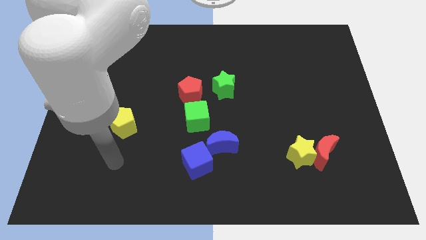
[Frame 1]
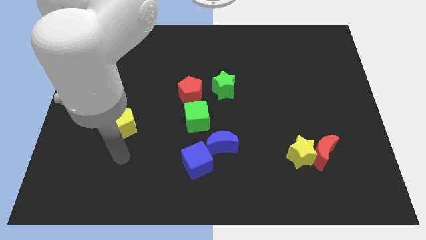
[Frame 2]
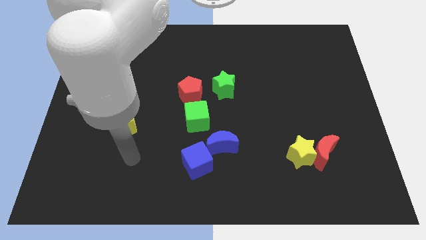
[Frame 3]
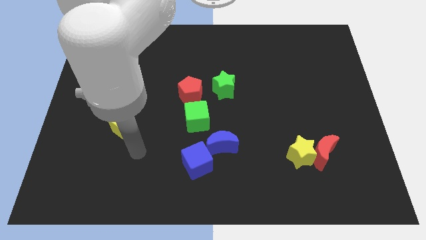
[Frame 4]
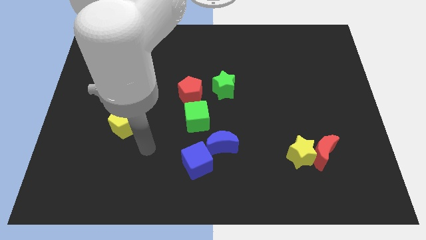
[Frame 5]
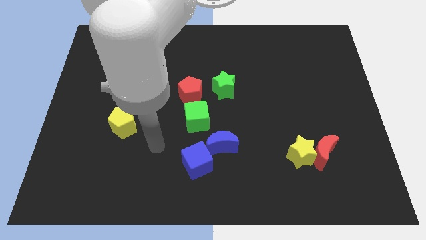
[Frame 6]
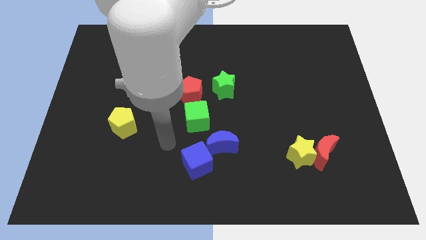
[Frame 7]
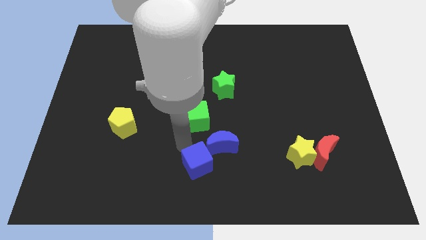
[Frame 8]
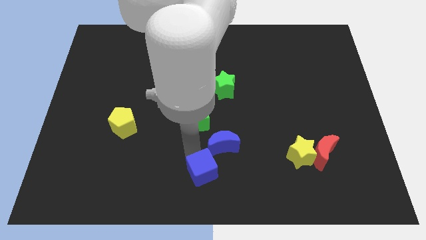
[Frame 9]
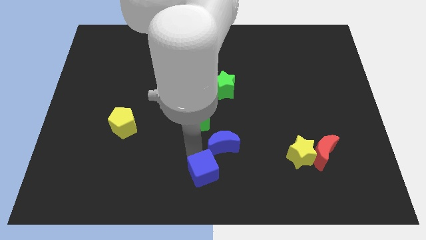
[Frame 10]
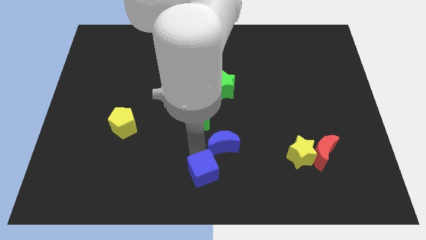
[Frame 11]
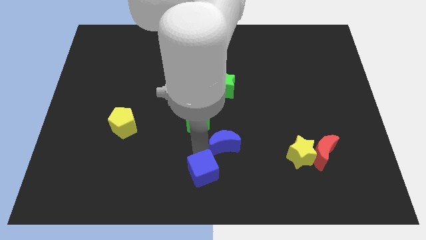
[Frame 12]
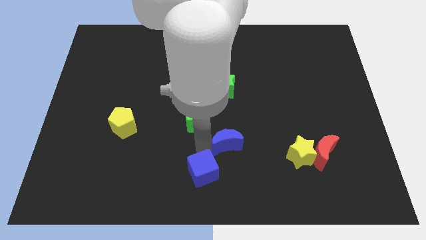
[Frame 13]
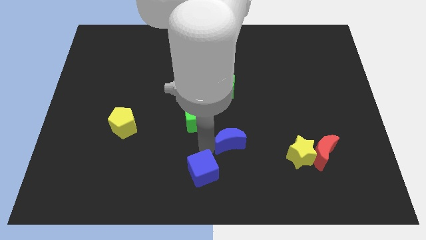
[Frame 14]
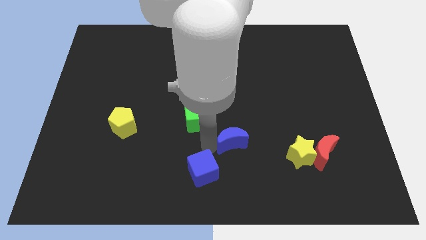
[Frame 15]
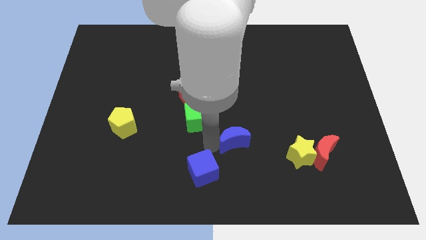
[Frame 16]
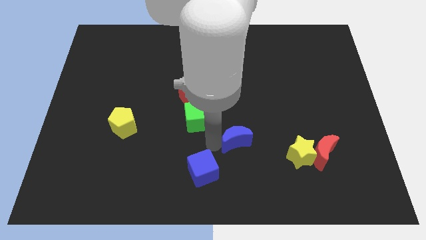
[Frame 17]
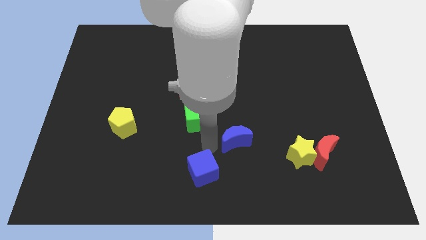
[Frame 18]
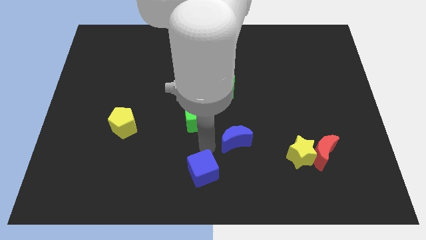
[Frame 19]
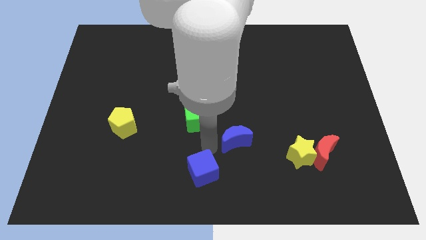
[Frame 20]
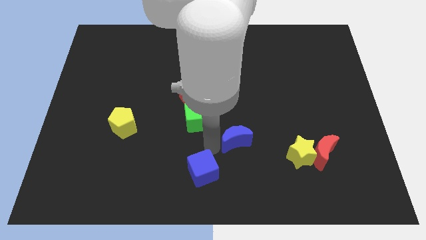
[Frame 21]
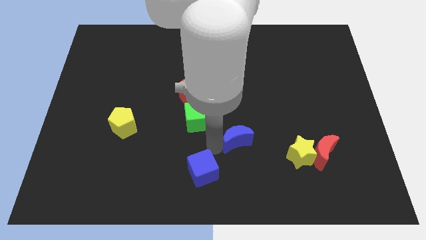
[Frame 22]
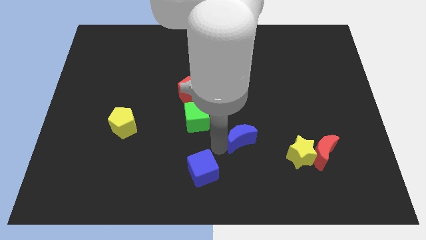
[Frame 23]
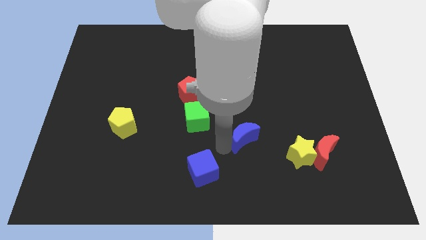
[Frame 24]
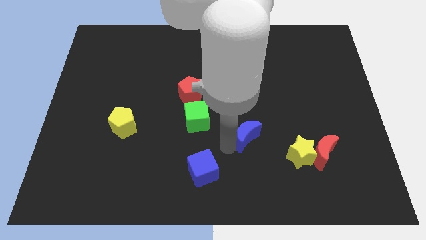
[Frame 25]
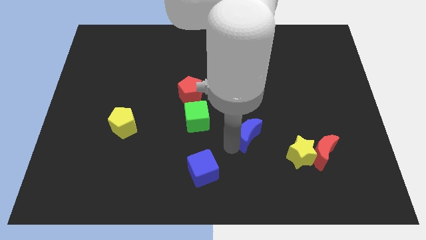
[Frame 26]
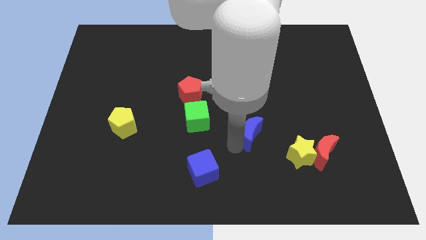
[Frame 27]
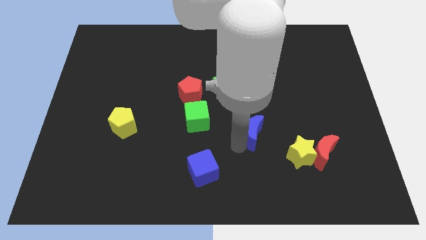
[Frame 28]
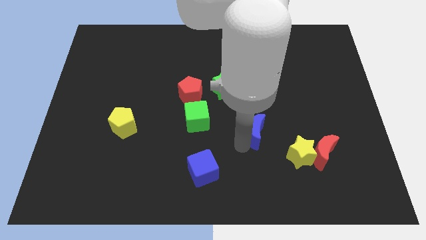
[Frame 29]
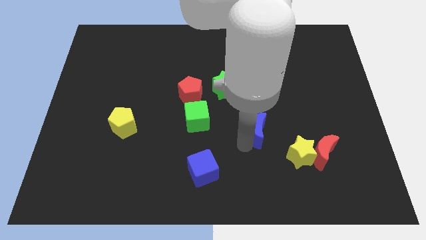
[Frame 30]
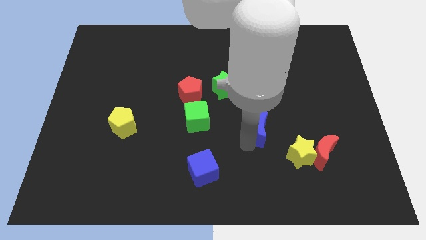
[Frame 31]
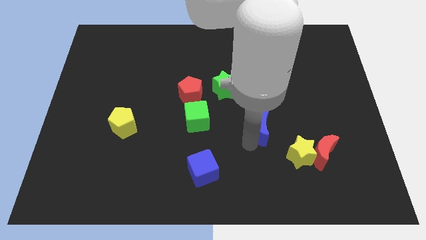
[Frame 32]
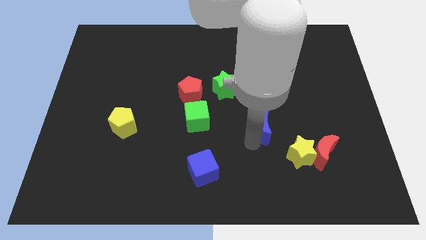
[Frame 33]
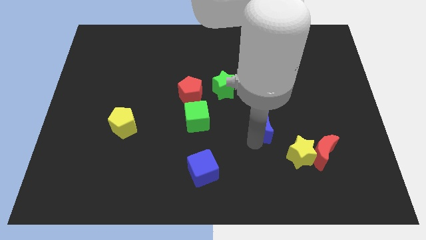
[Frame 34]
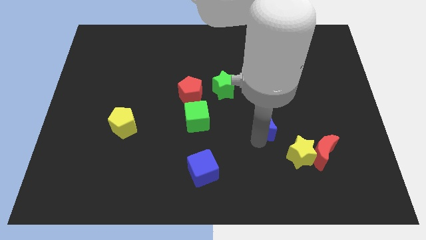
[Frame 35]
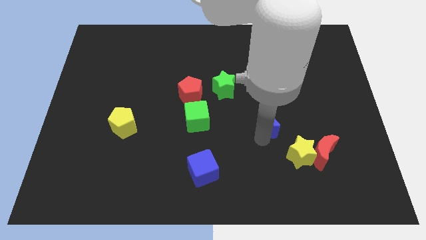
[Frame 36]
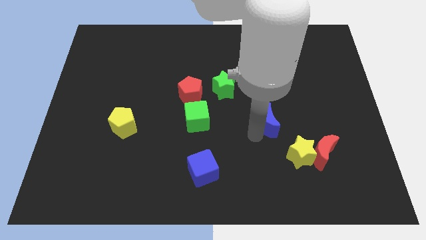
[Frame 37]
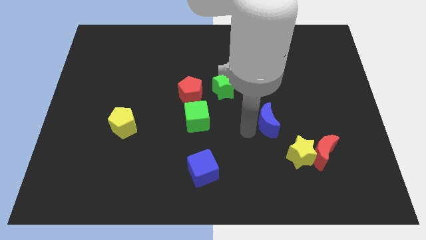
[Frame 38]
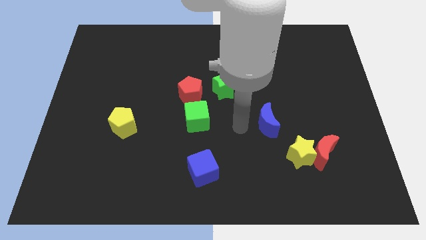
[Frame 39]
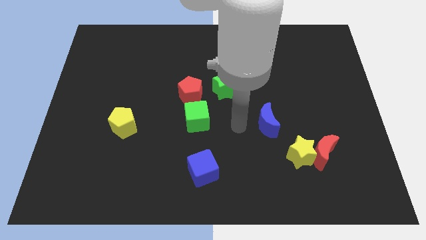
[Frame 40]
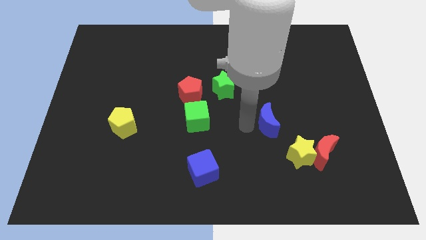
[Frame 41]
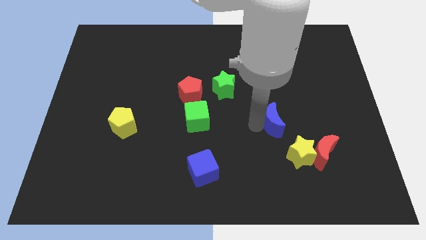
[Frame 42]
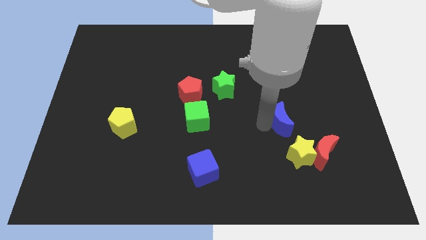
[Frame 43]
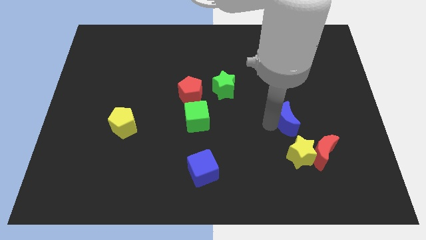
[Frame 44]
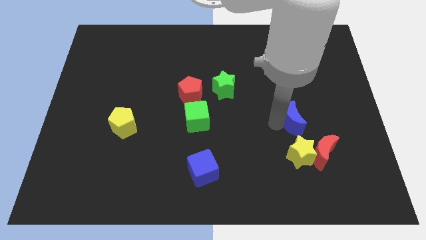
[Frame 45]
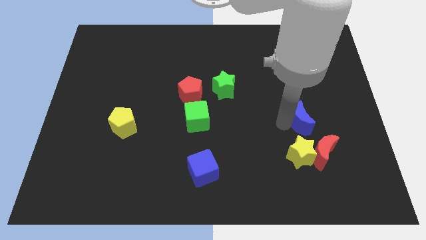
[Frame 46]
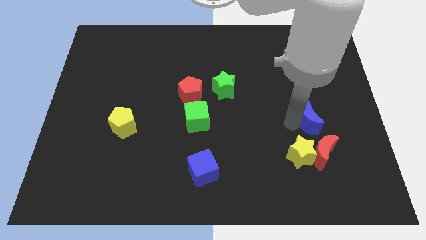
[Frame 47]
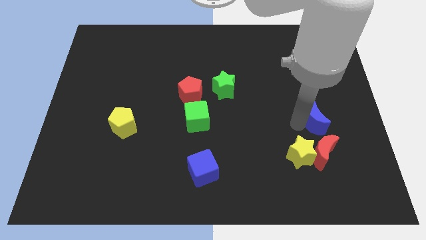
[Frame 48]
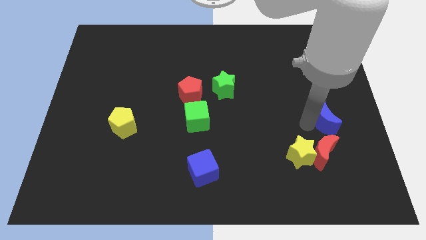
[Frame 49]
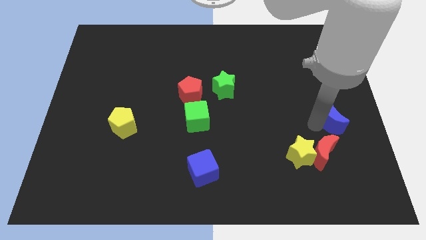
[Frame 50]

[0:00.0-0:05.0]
put the blue moon to the right side

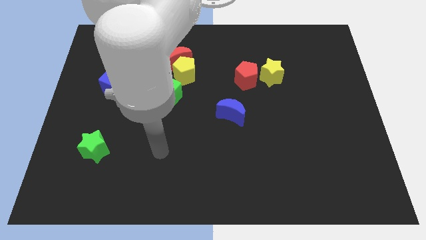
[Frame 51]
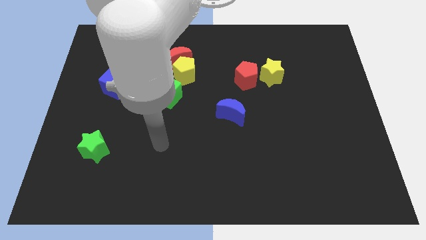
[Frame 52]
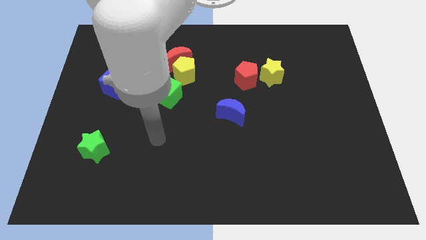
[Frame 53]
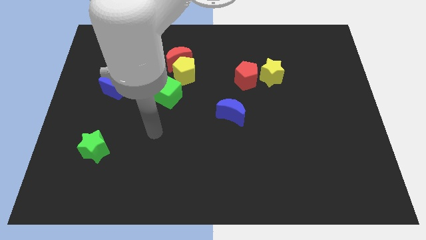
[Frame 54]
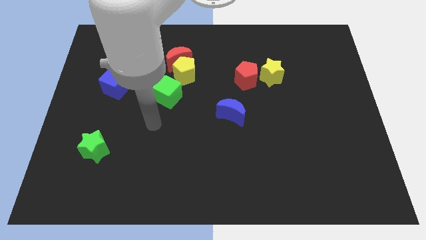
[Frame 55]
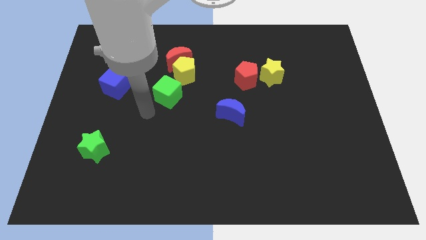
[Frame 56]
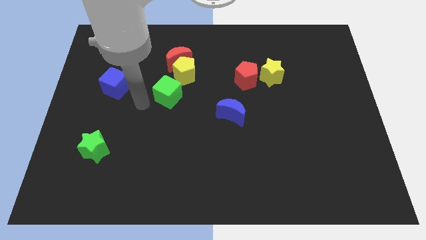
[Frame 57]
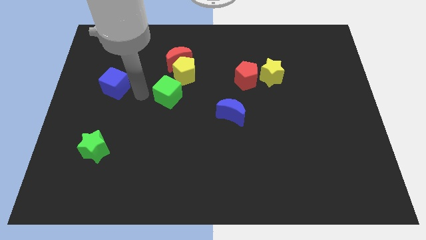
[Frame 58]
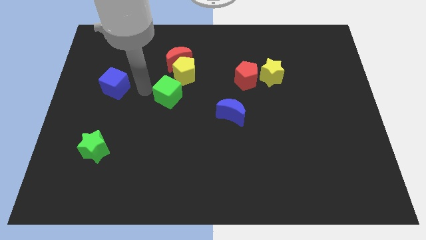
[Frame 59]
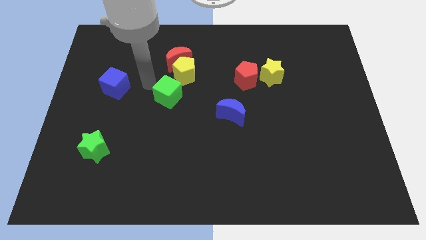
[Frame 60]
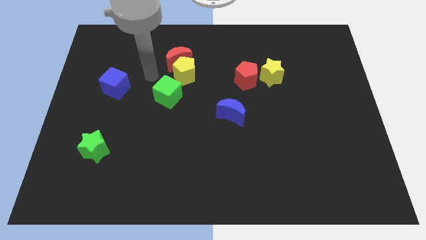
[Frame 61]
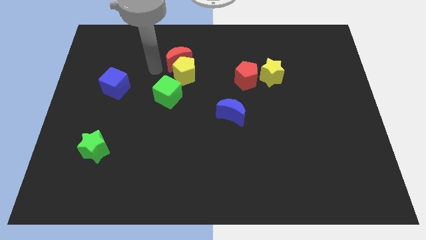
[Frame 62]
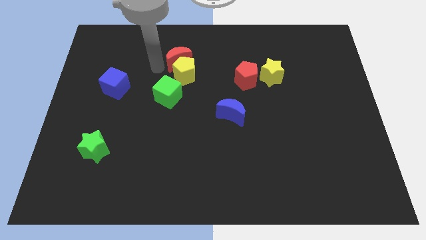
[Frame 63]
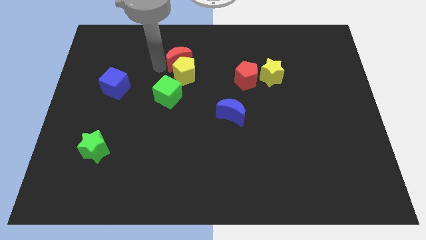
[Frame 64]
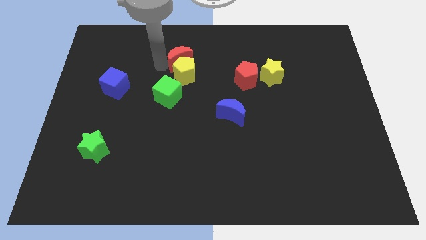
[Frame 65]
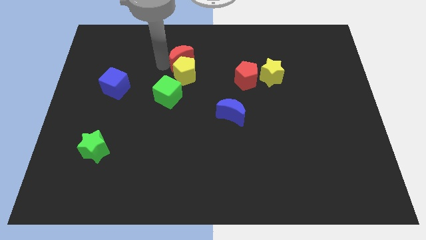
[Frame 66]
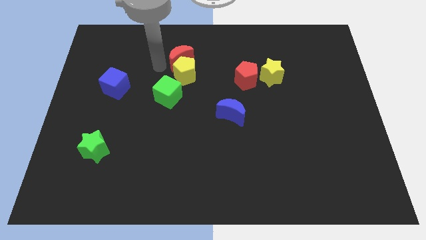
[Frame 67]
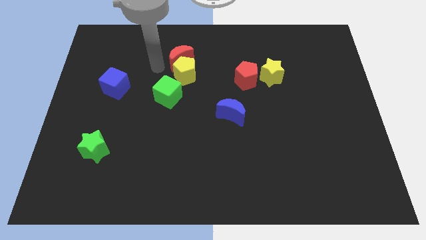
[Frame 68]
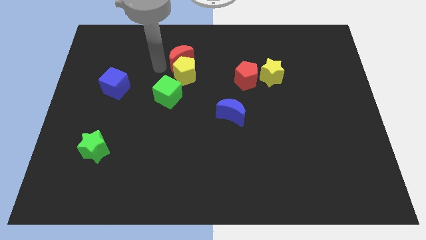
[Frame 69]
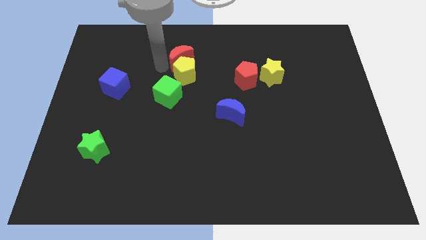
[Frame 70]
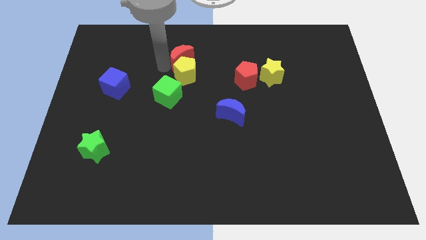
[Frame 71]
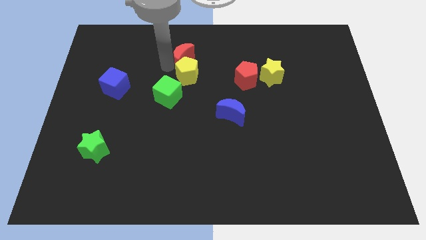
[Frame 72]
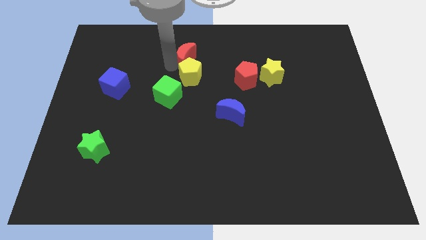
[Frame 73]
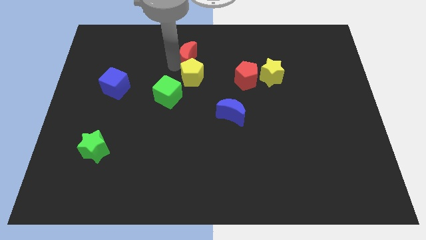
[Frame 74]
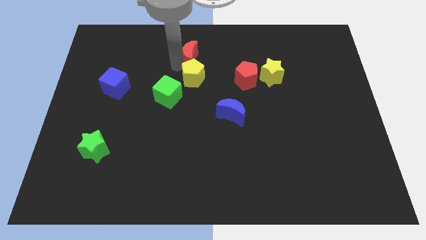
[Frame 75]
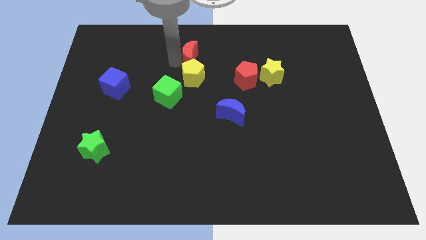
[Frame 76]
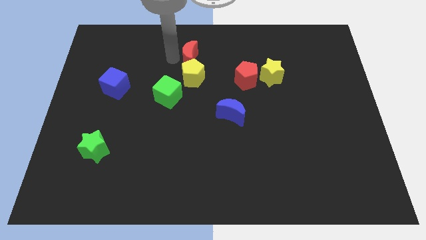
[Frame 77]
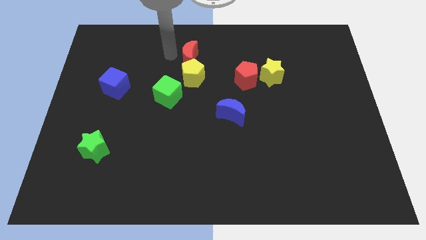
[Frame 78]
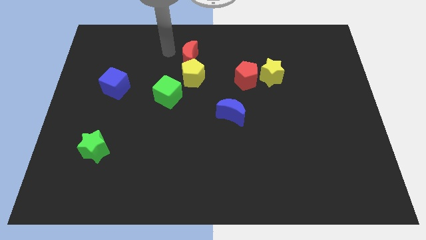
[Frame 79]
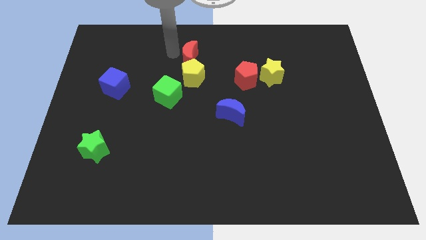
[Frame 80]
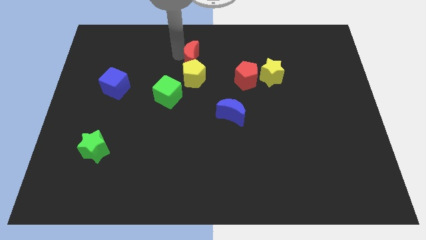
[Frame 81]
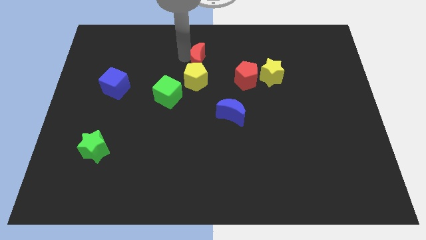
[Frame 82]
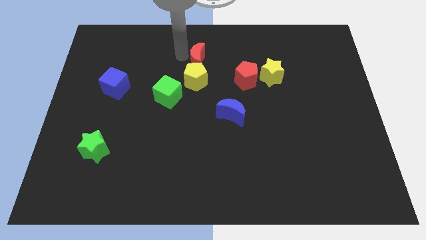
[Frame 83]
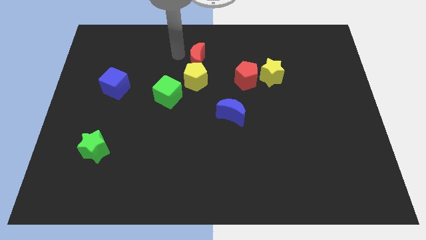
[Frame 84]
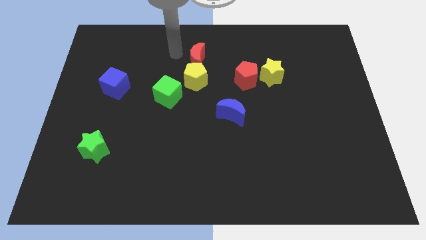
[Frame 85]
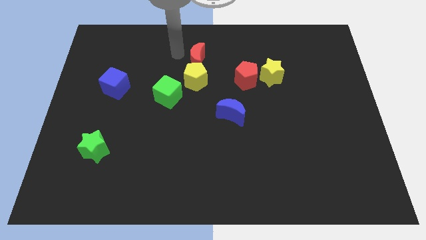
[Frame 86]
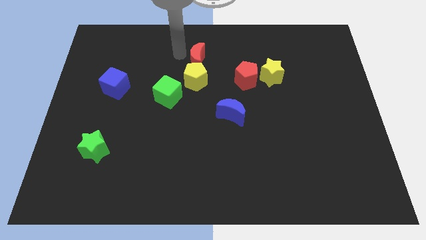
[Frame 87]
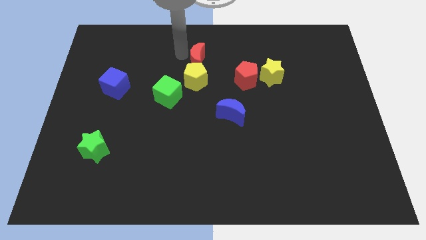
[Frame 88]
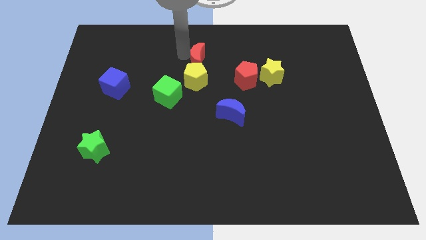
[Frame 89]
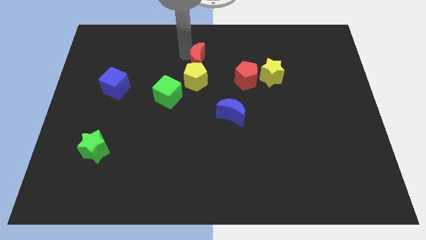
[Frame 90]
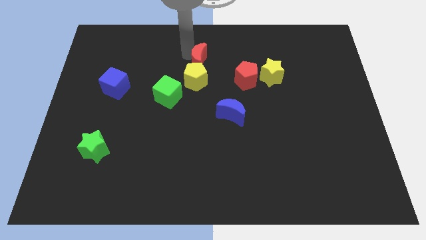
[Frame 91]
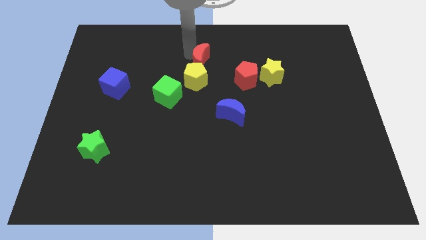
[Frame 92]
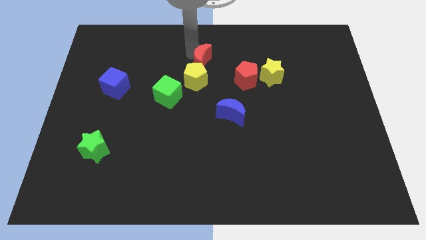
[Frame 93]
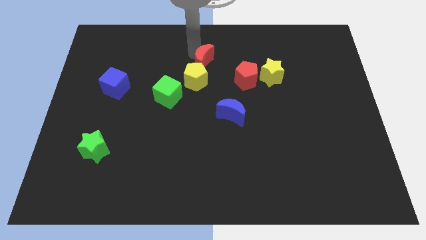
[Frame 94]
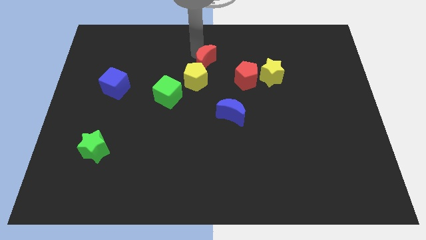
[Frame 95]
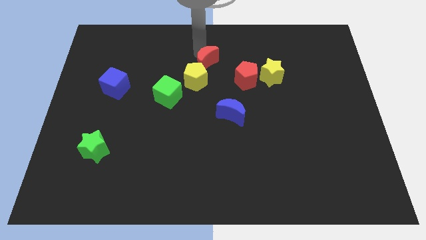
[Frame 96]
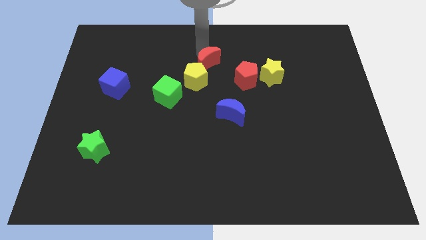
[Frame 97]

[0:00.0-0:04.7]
push the red moon to the middle of the board
